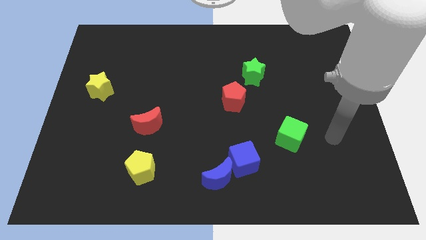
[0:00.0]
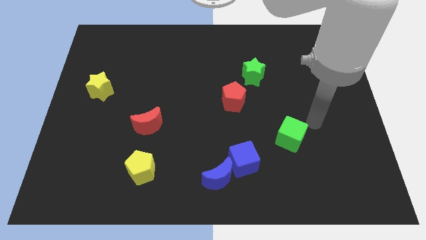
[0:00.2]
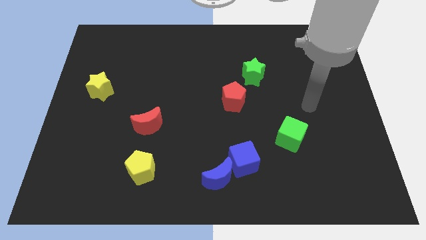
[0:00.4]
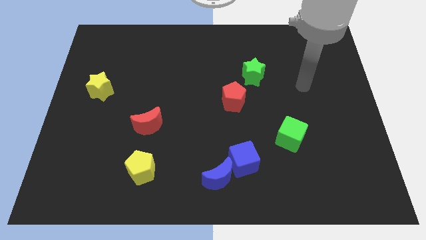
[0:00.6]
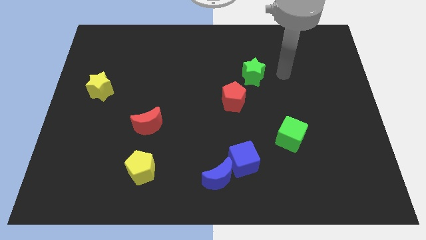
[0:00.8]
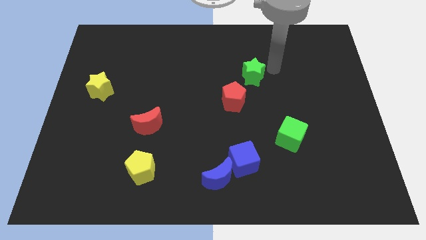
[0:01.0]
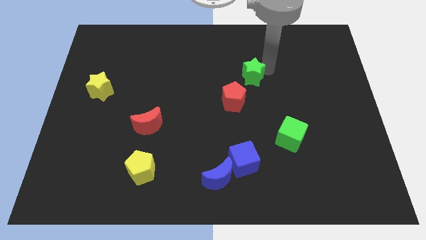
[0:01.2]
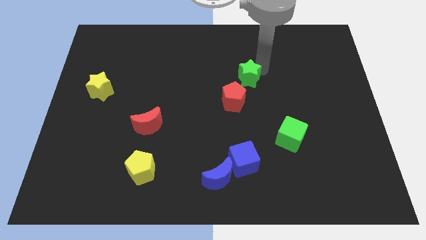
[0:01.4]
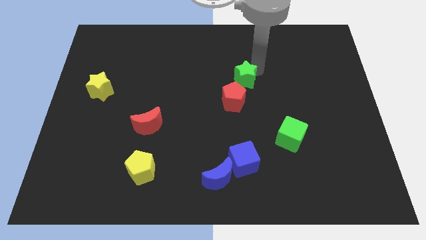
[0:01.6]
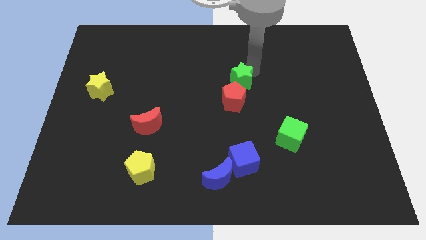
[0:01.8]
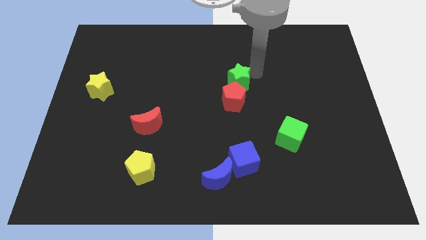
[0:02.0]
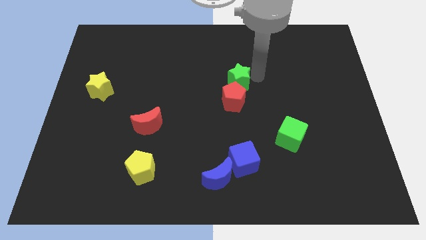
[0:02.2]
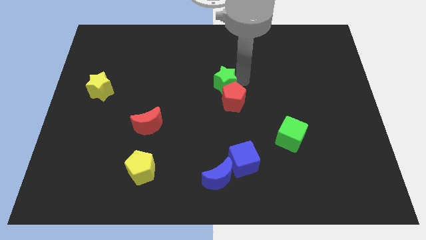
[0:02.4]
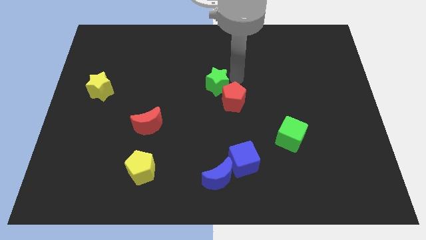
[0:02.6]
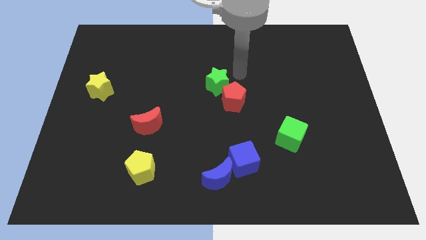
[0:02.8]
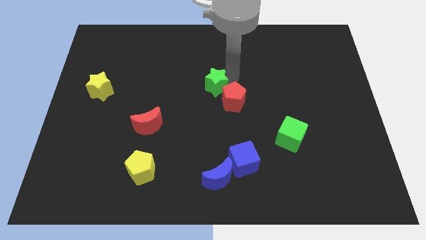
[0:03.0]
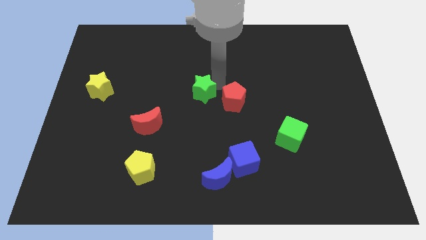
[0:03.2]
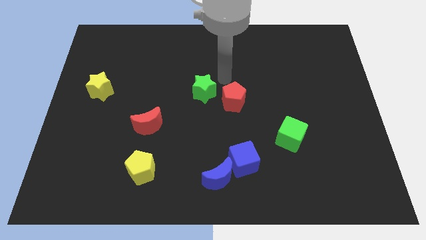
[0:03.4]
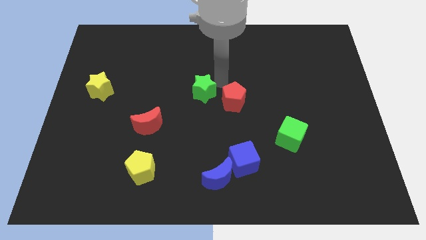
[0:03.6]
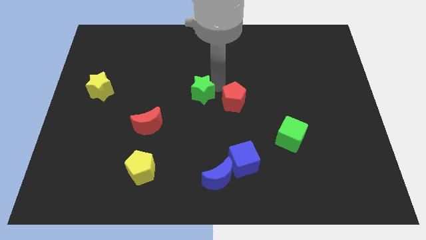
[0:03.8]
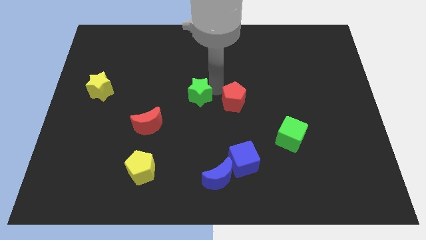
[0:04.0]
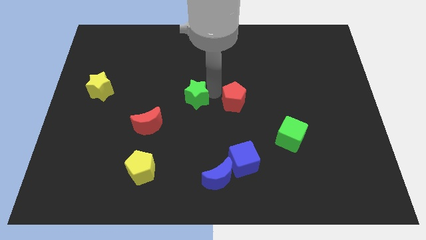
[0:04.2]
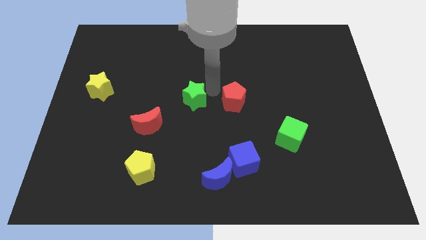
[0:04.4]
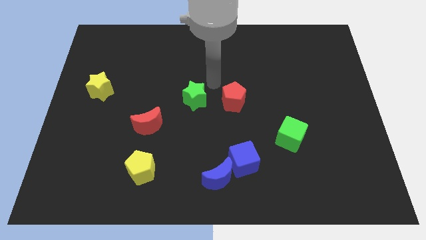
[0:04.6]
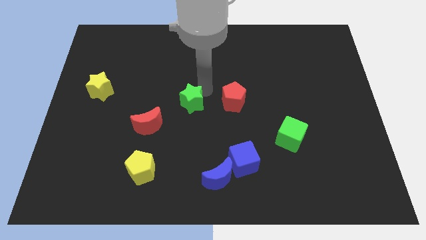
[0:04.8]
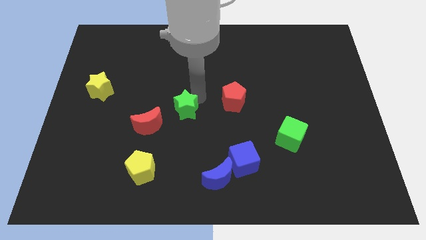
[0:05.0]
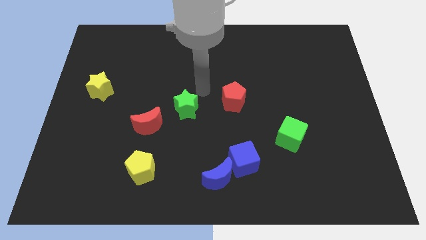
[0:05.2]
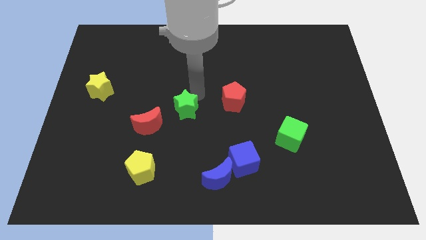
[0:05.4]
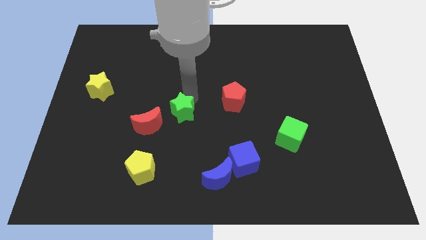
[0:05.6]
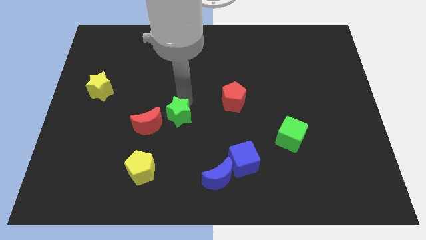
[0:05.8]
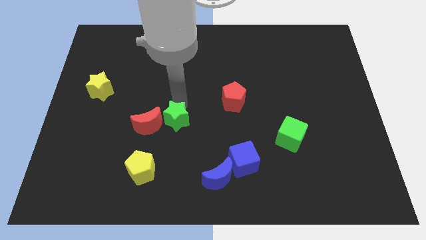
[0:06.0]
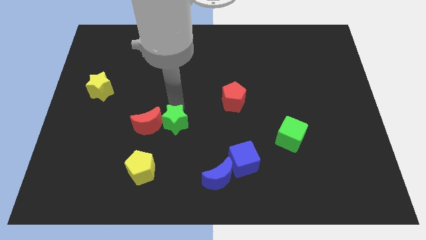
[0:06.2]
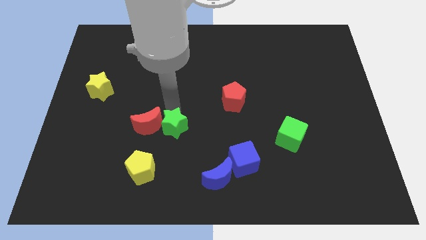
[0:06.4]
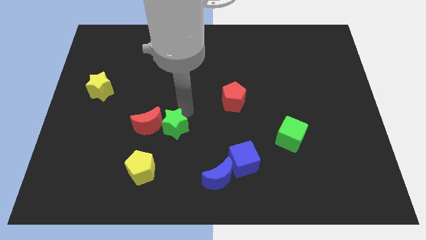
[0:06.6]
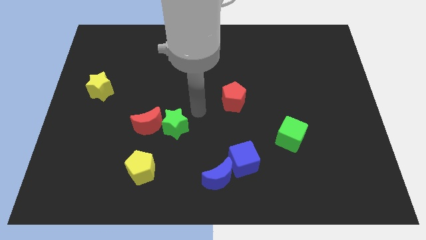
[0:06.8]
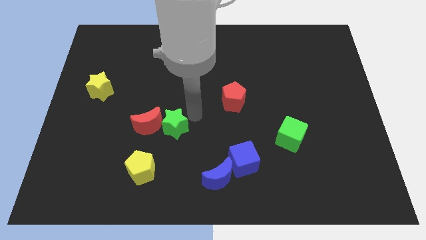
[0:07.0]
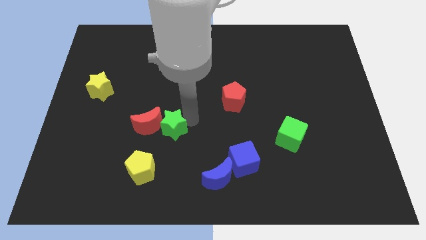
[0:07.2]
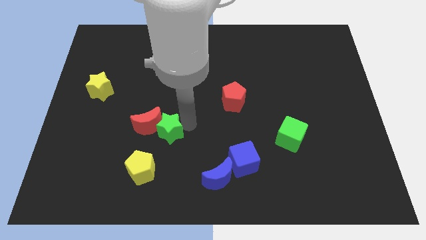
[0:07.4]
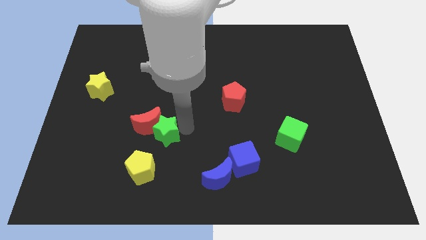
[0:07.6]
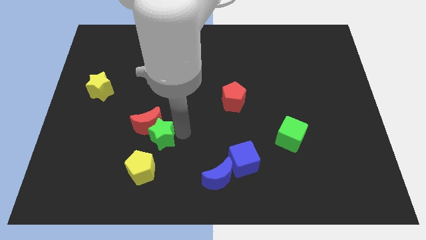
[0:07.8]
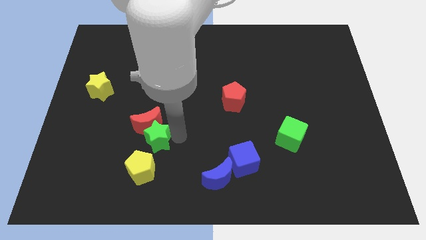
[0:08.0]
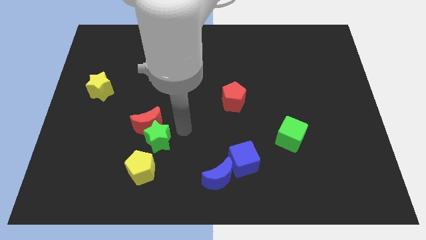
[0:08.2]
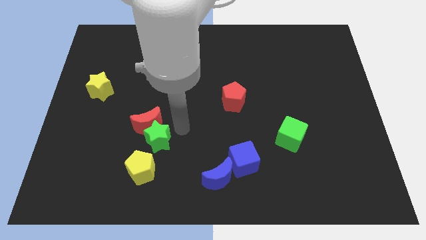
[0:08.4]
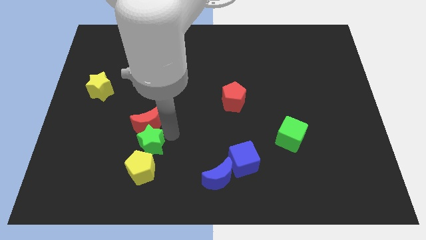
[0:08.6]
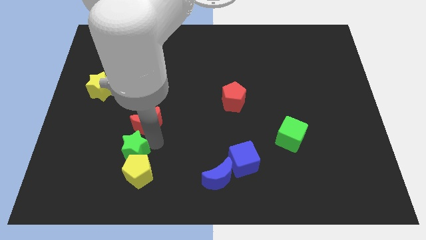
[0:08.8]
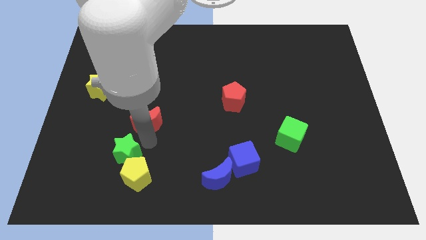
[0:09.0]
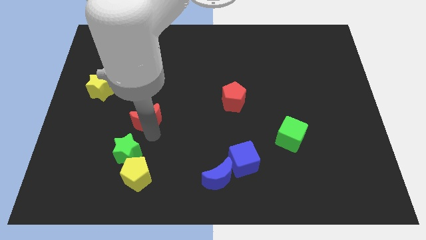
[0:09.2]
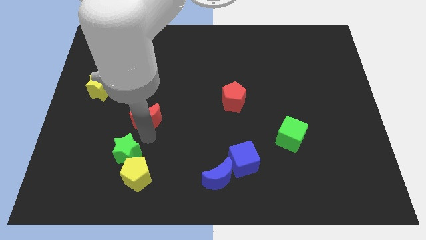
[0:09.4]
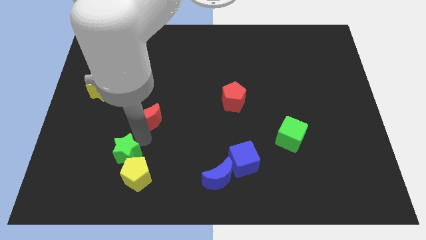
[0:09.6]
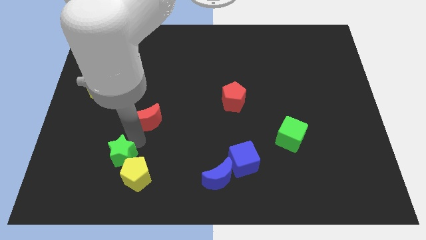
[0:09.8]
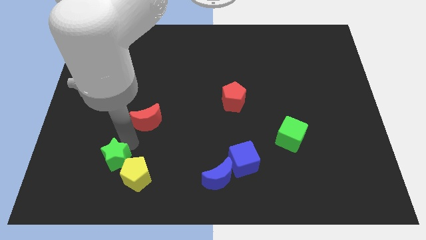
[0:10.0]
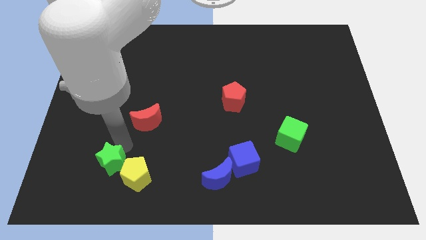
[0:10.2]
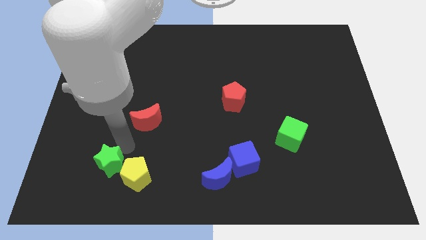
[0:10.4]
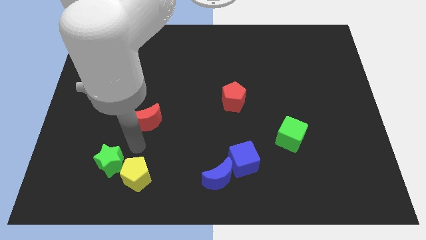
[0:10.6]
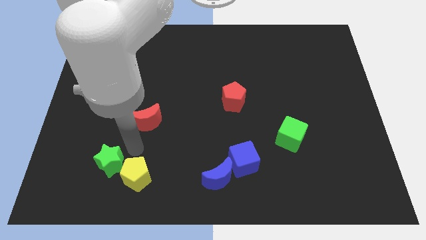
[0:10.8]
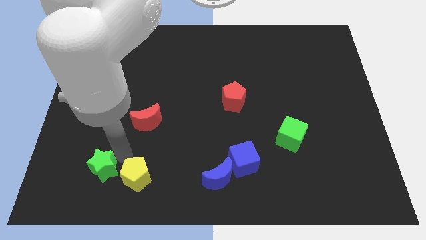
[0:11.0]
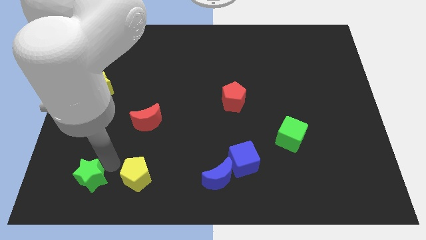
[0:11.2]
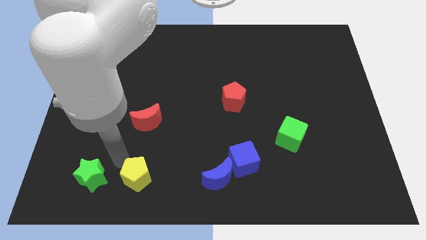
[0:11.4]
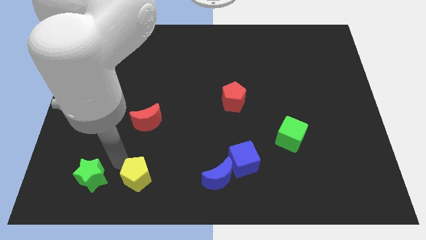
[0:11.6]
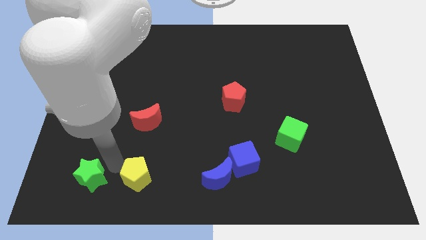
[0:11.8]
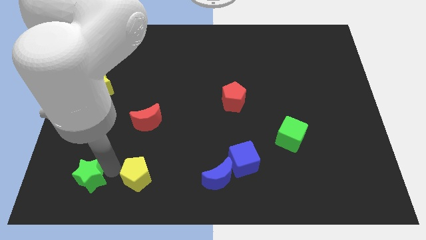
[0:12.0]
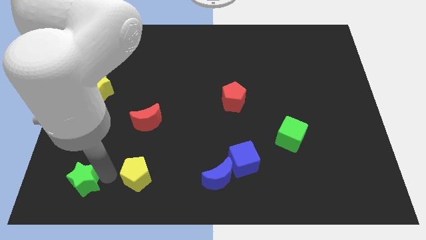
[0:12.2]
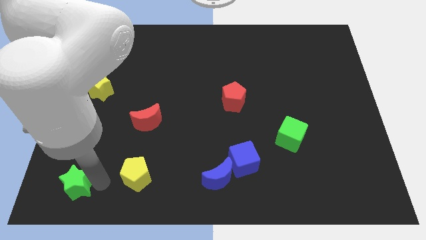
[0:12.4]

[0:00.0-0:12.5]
put the green star to the bottom left

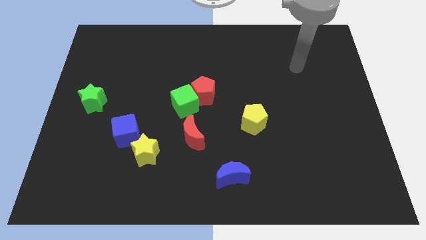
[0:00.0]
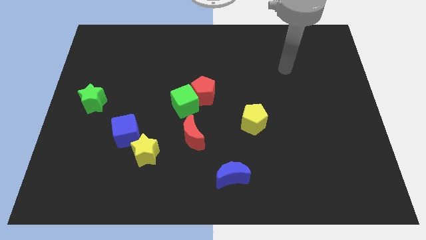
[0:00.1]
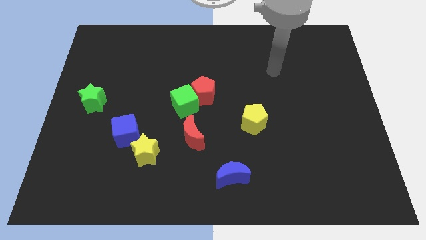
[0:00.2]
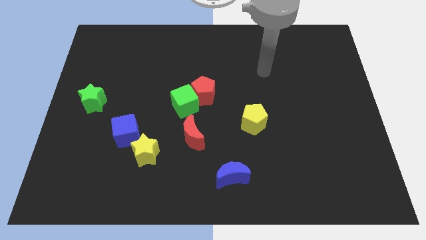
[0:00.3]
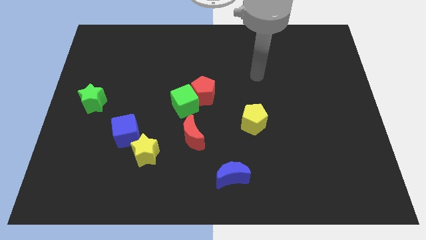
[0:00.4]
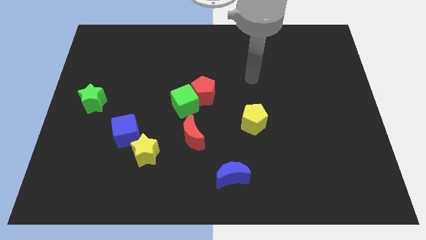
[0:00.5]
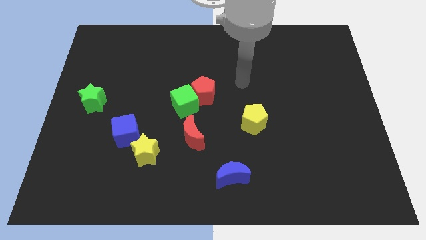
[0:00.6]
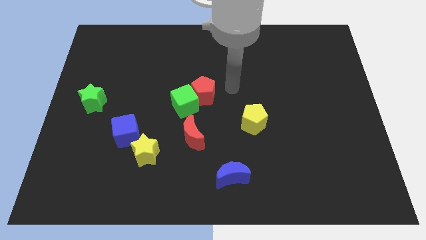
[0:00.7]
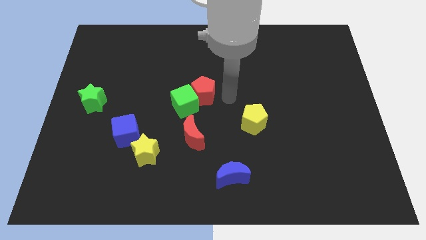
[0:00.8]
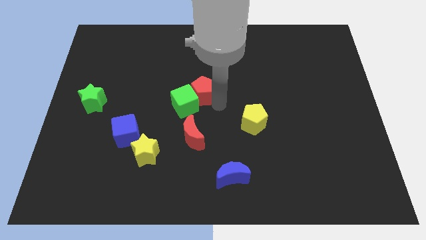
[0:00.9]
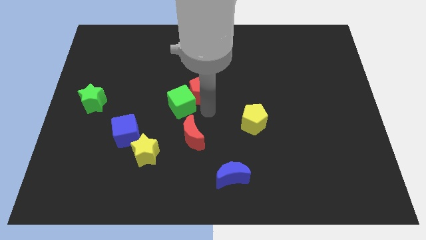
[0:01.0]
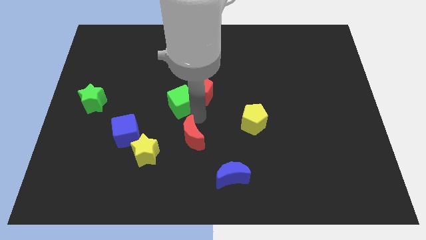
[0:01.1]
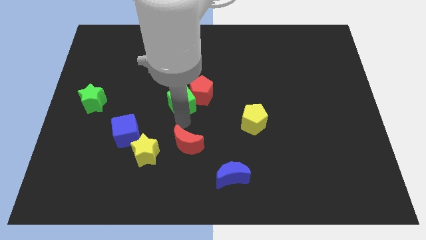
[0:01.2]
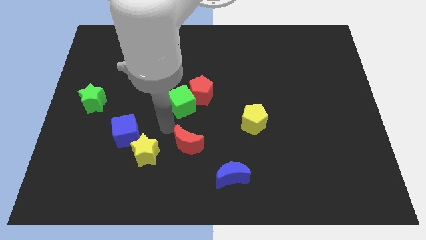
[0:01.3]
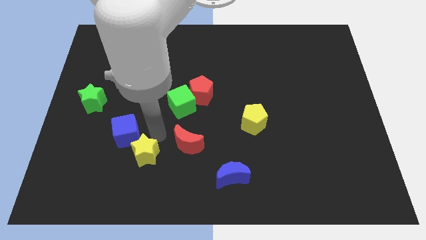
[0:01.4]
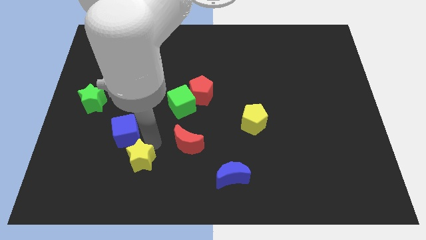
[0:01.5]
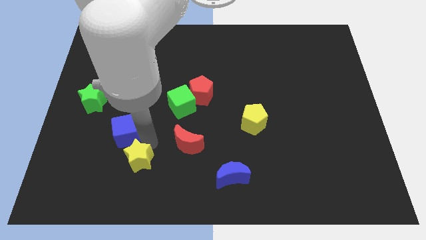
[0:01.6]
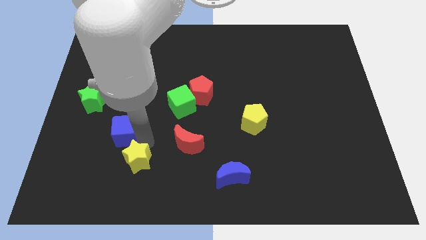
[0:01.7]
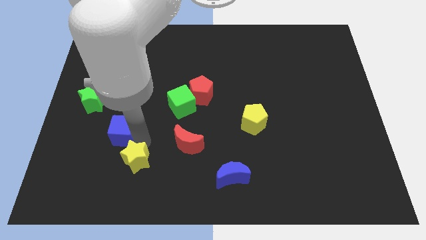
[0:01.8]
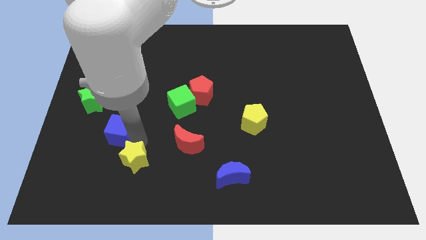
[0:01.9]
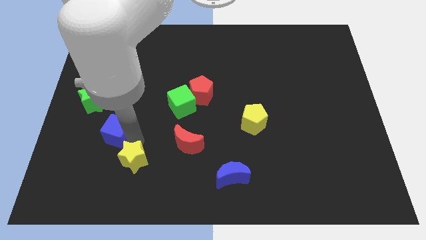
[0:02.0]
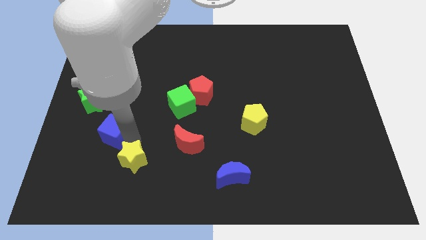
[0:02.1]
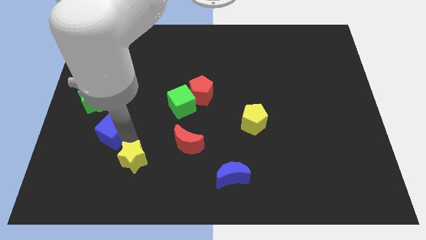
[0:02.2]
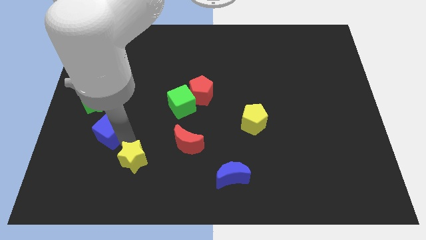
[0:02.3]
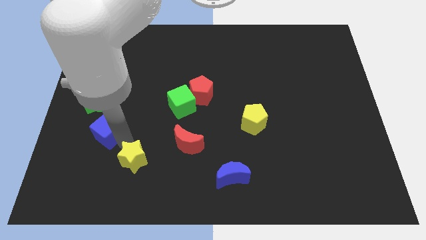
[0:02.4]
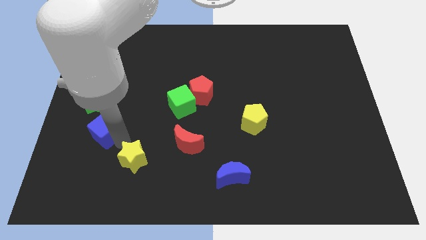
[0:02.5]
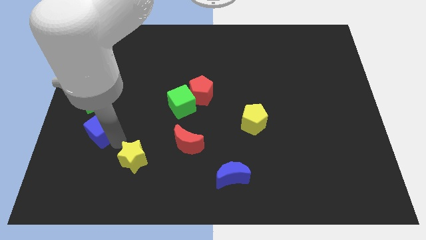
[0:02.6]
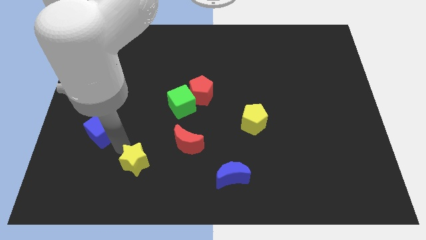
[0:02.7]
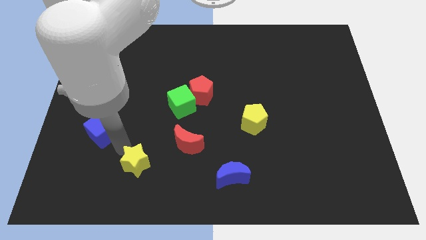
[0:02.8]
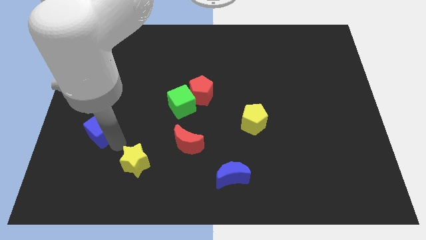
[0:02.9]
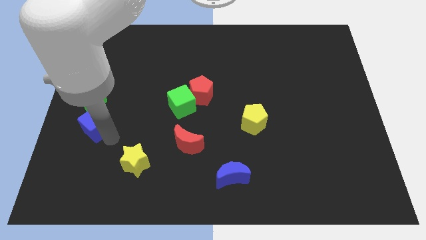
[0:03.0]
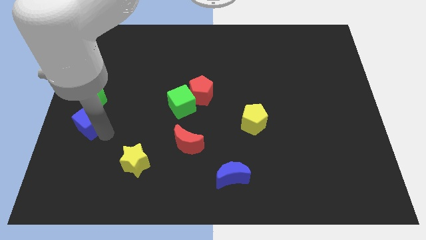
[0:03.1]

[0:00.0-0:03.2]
push the blue cube to the left side
